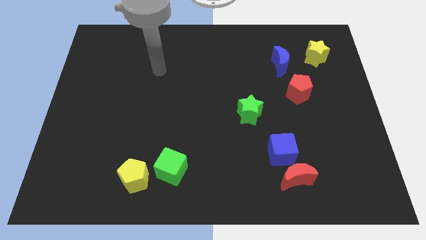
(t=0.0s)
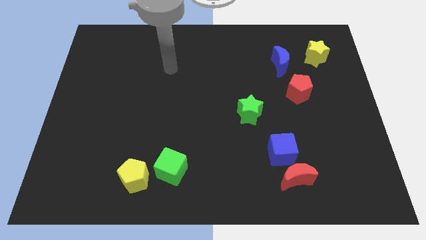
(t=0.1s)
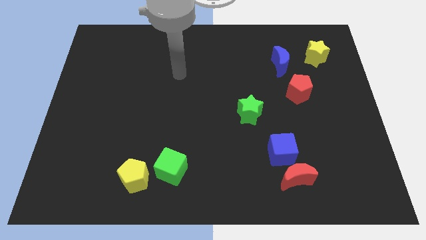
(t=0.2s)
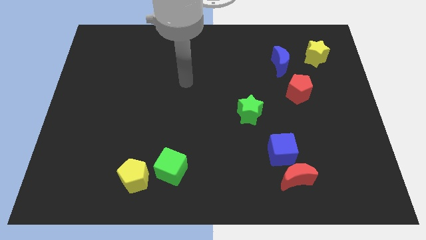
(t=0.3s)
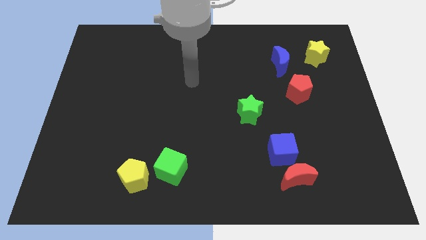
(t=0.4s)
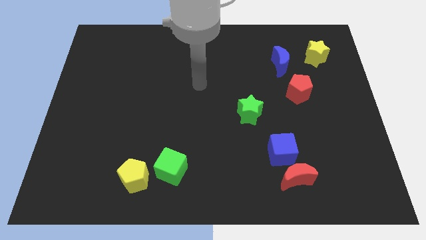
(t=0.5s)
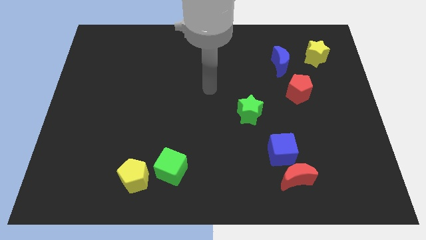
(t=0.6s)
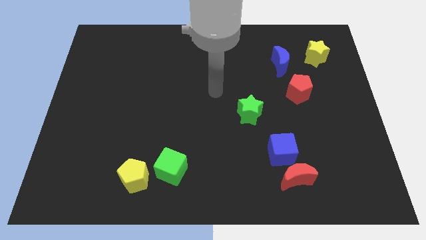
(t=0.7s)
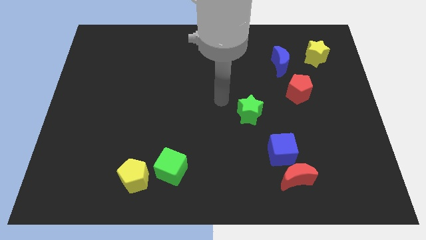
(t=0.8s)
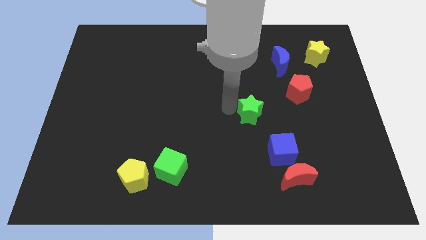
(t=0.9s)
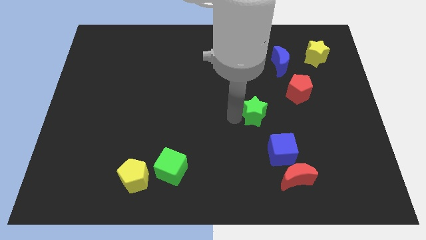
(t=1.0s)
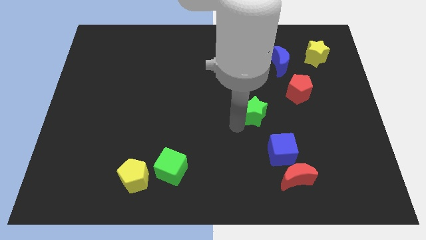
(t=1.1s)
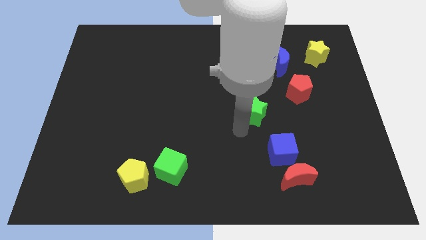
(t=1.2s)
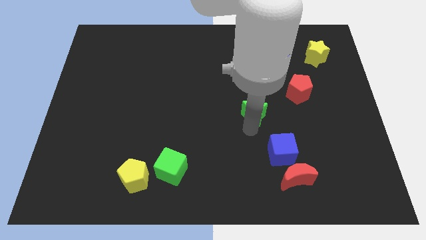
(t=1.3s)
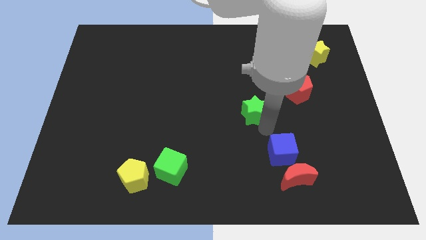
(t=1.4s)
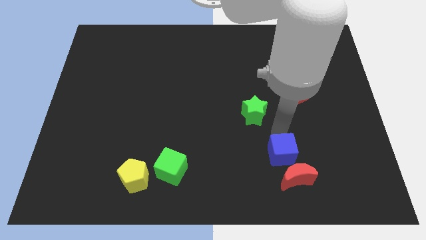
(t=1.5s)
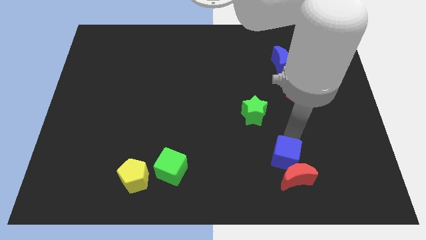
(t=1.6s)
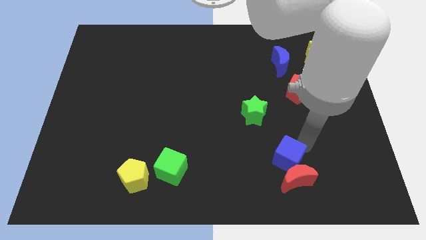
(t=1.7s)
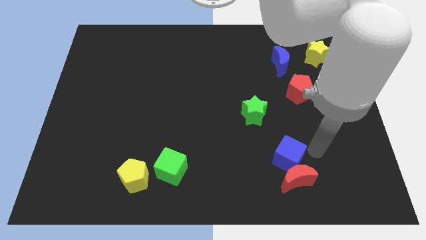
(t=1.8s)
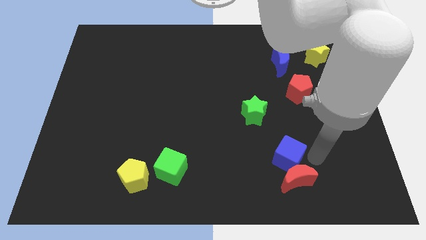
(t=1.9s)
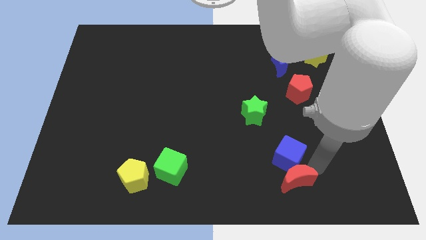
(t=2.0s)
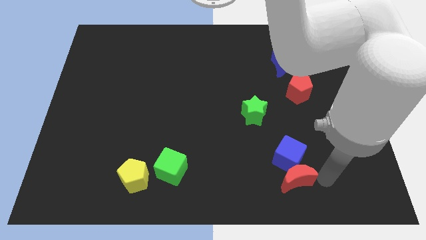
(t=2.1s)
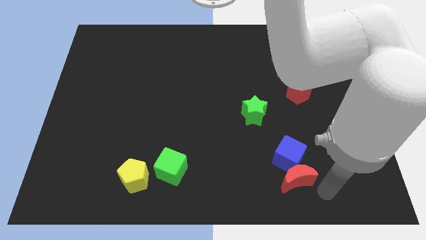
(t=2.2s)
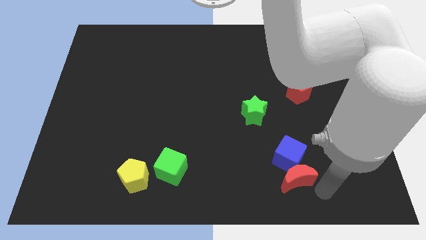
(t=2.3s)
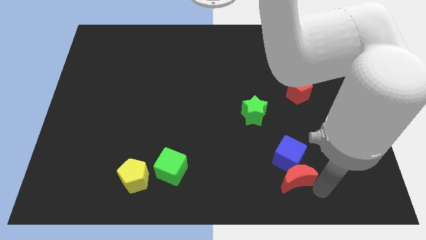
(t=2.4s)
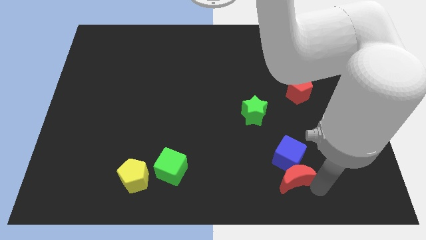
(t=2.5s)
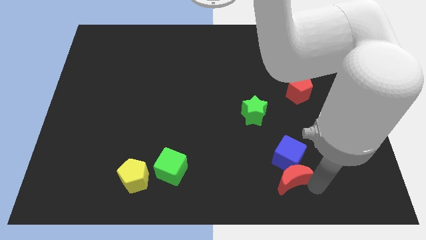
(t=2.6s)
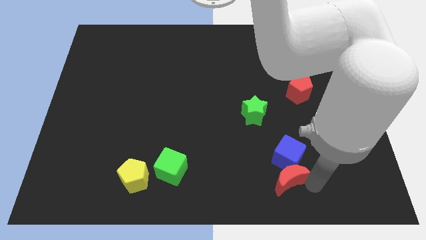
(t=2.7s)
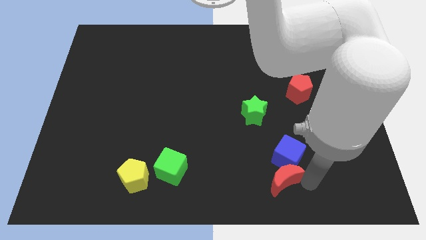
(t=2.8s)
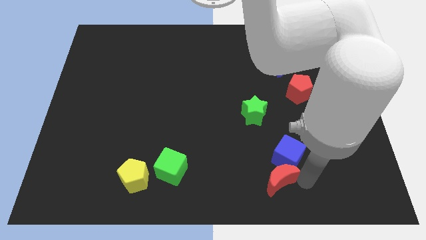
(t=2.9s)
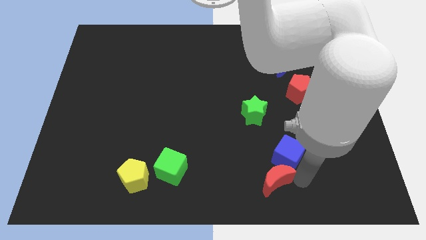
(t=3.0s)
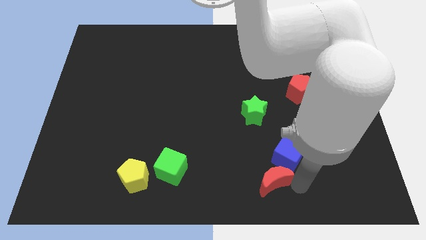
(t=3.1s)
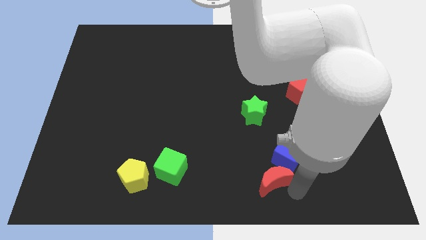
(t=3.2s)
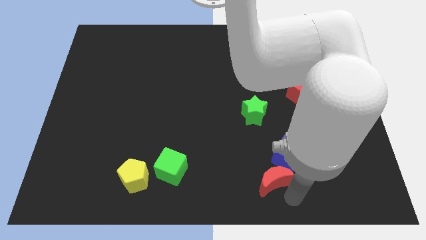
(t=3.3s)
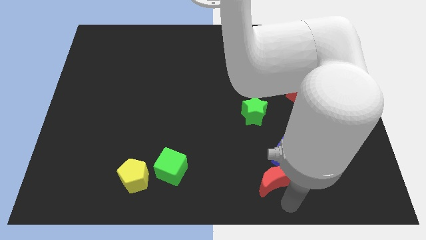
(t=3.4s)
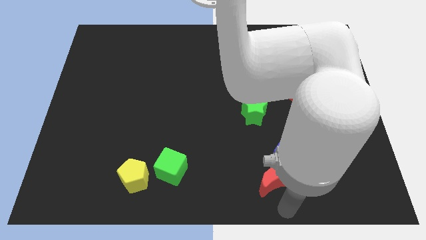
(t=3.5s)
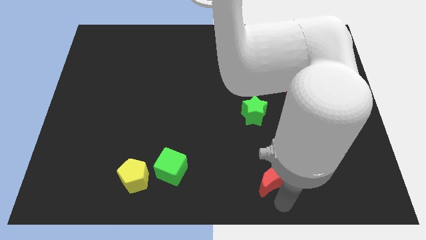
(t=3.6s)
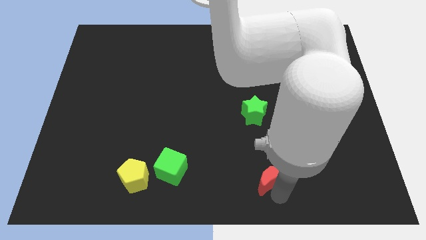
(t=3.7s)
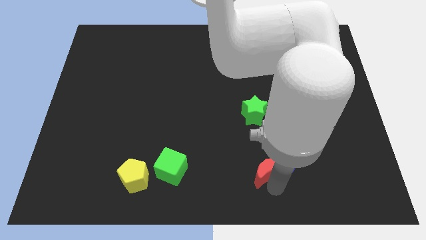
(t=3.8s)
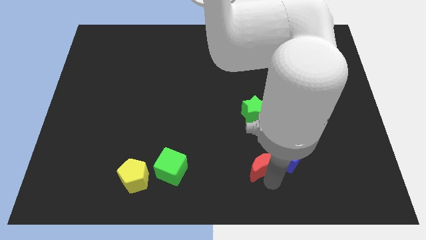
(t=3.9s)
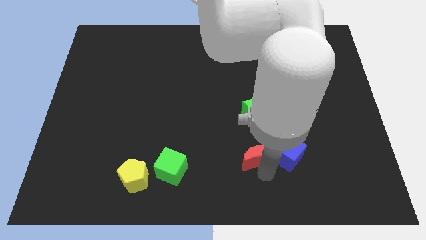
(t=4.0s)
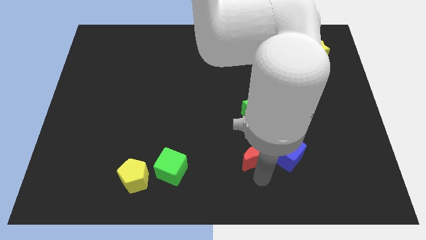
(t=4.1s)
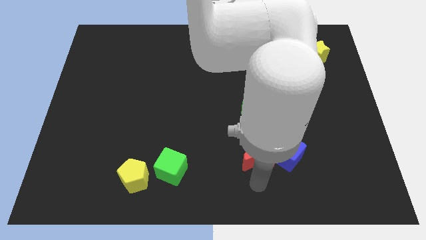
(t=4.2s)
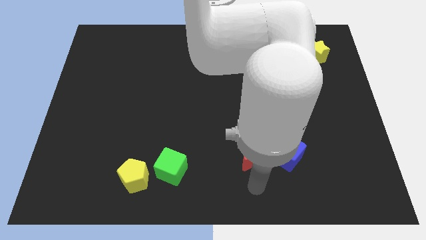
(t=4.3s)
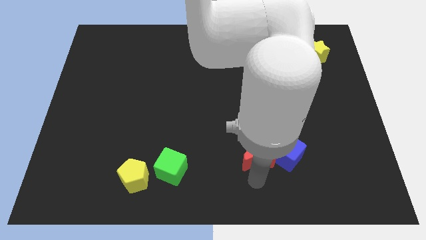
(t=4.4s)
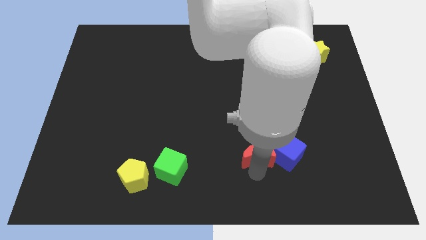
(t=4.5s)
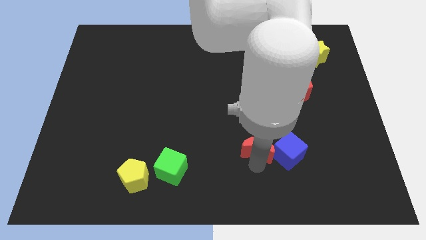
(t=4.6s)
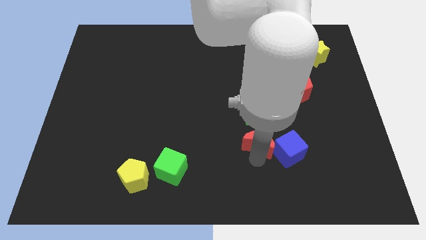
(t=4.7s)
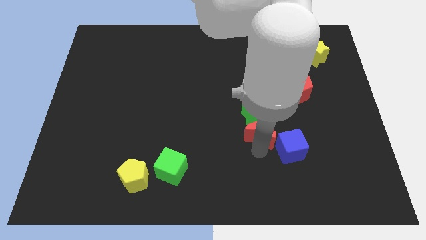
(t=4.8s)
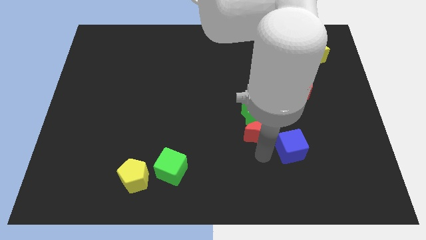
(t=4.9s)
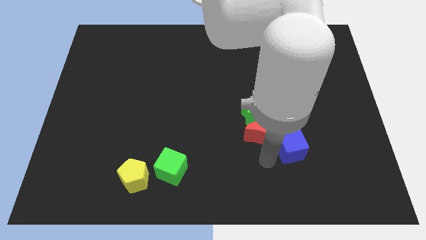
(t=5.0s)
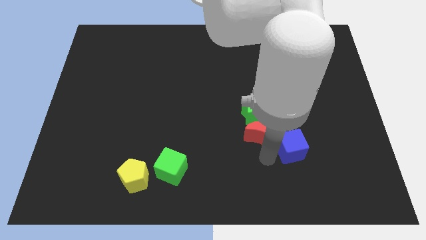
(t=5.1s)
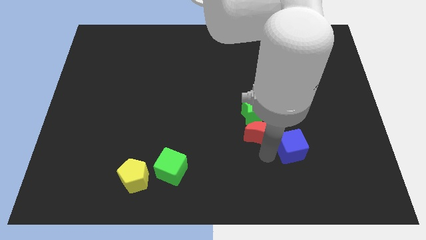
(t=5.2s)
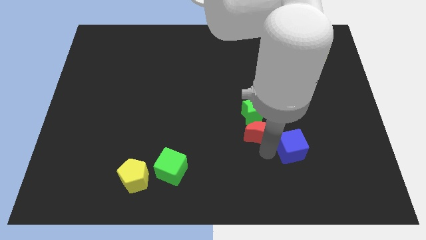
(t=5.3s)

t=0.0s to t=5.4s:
put the red moon next to the green star

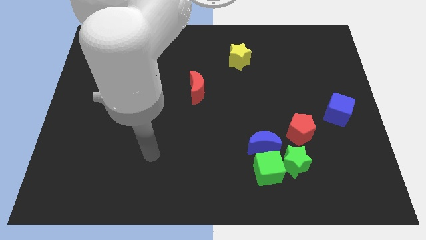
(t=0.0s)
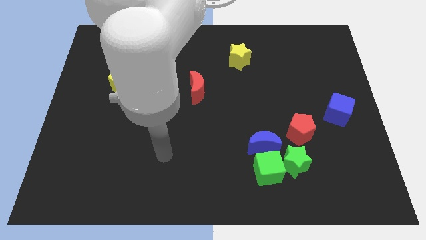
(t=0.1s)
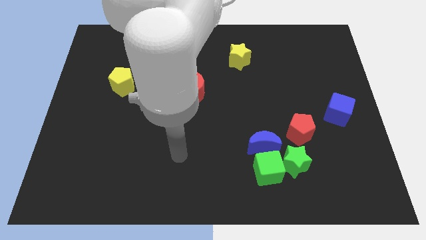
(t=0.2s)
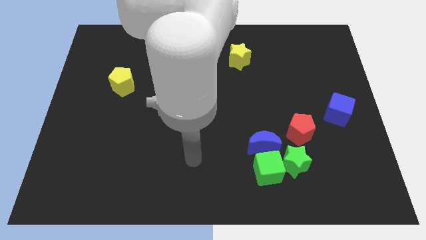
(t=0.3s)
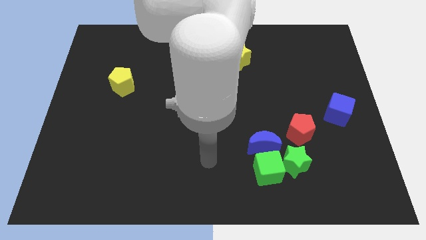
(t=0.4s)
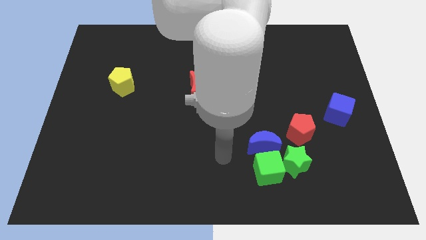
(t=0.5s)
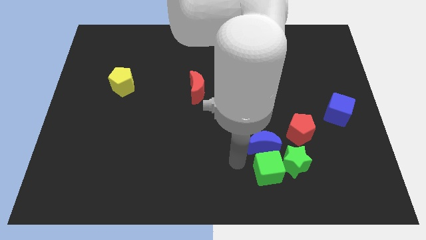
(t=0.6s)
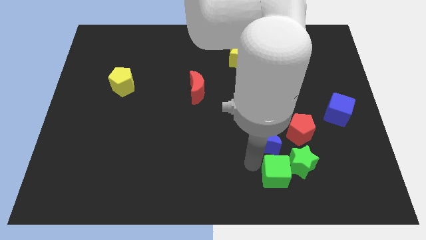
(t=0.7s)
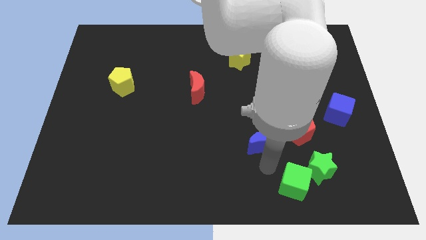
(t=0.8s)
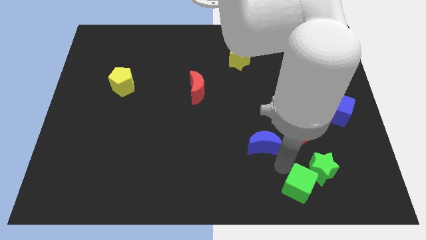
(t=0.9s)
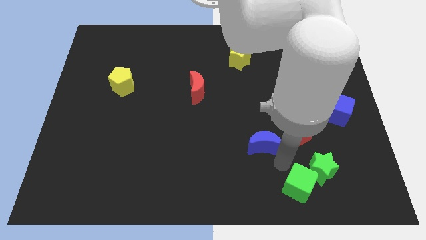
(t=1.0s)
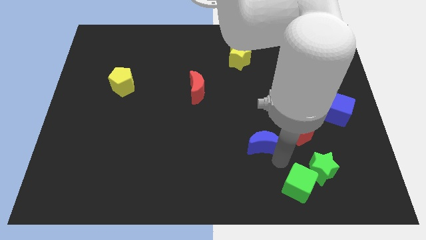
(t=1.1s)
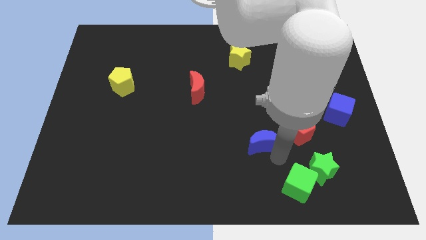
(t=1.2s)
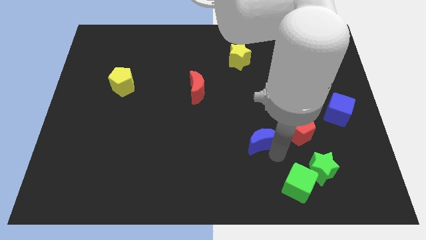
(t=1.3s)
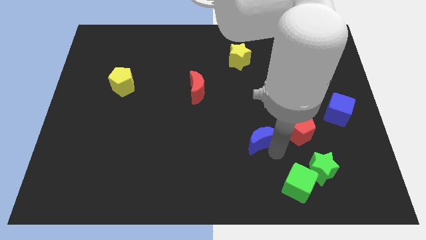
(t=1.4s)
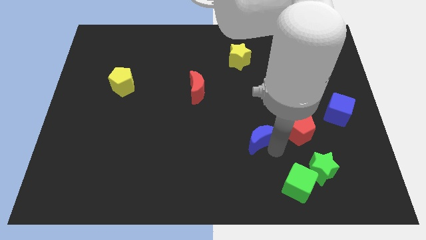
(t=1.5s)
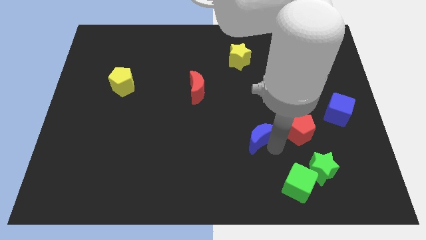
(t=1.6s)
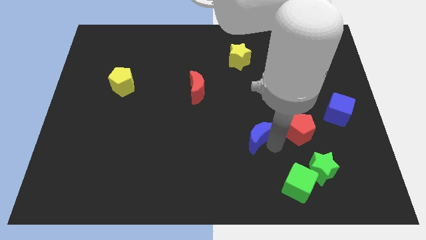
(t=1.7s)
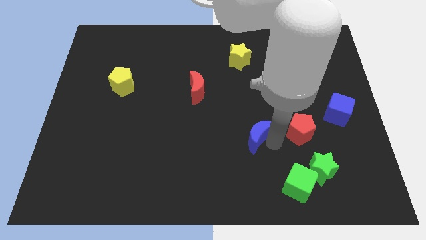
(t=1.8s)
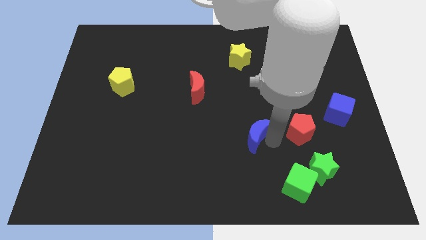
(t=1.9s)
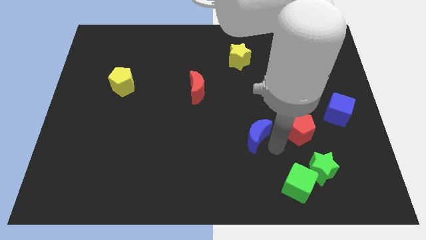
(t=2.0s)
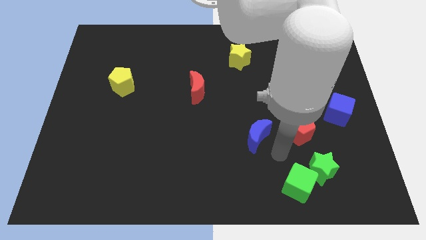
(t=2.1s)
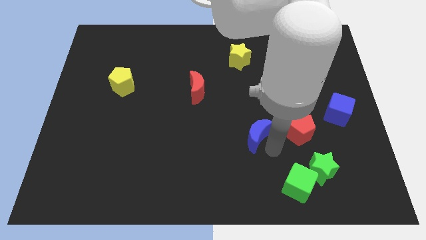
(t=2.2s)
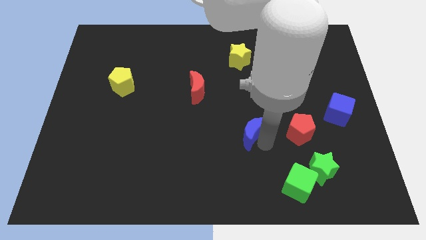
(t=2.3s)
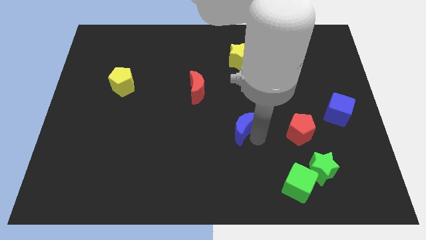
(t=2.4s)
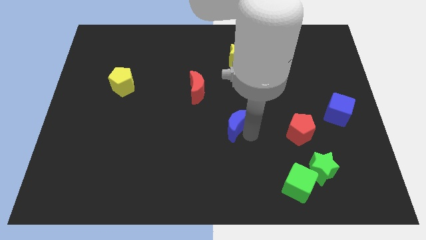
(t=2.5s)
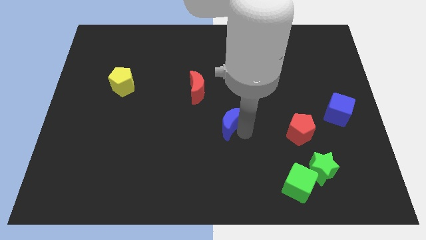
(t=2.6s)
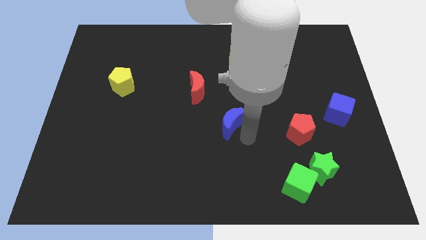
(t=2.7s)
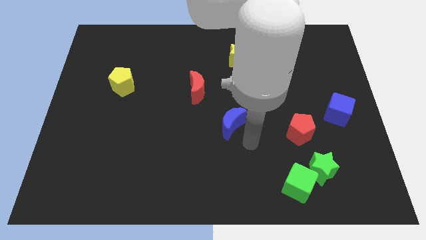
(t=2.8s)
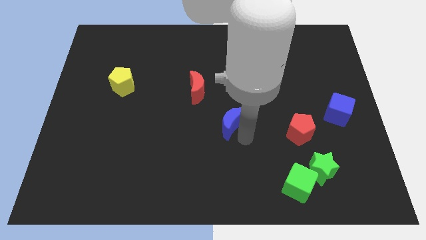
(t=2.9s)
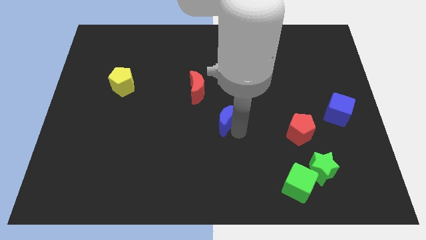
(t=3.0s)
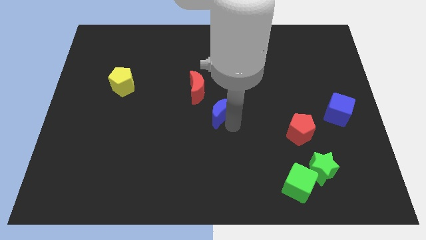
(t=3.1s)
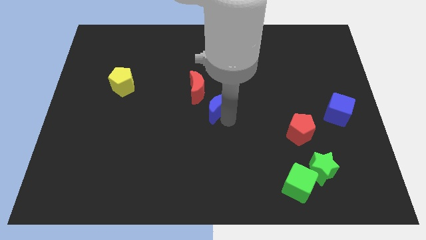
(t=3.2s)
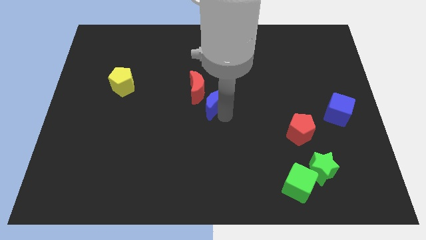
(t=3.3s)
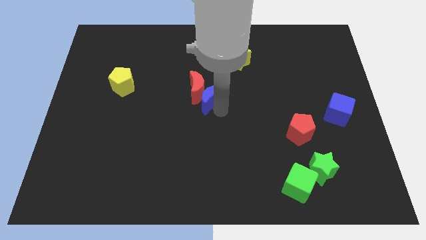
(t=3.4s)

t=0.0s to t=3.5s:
slide the blue moon to the red moon
